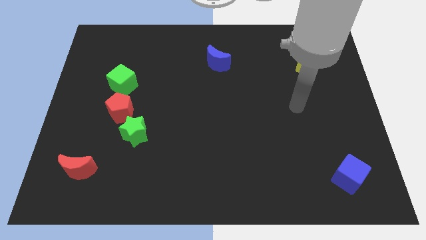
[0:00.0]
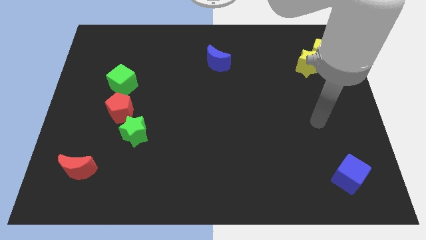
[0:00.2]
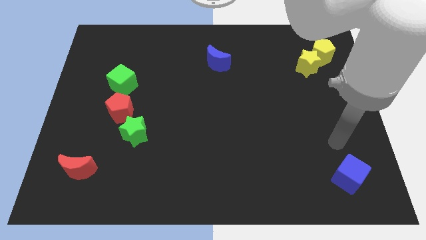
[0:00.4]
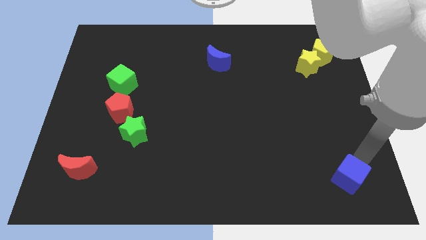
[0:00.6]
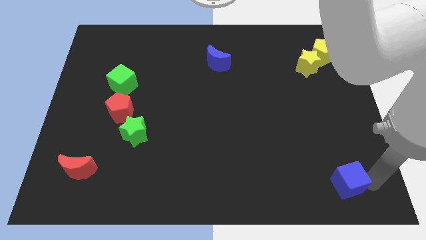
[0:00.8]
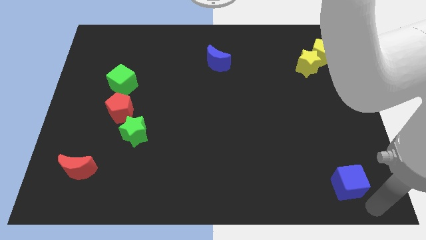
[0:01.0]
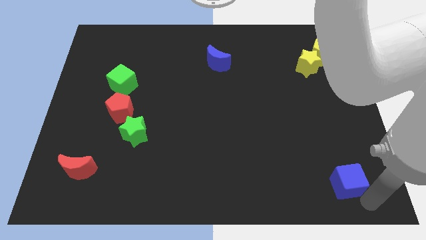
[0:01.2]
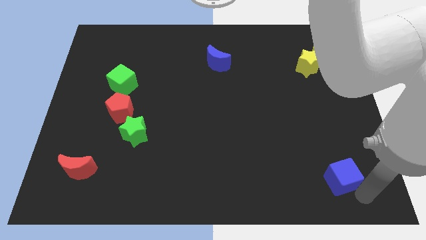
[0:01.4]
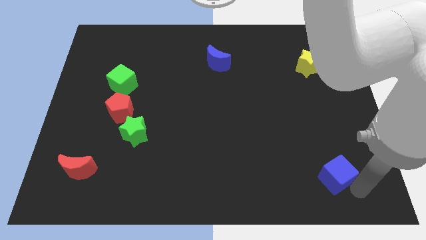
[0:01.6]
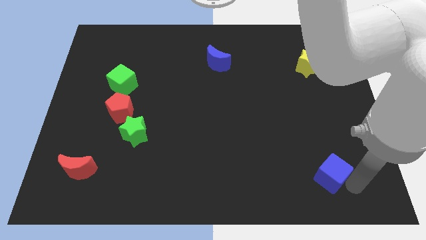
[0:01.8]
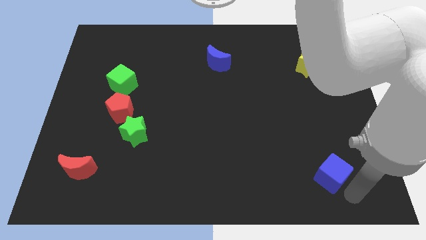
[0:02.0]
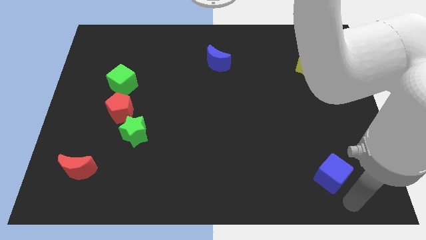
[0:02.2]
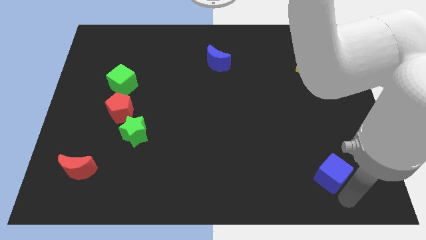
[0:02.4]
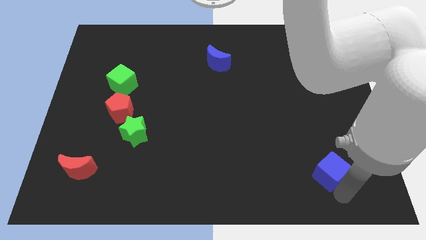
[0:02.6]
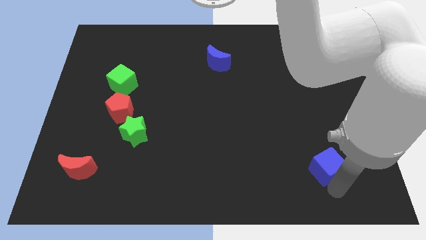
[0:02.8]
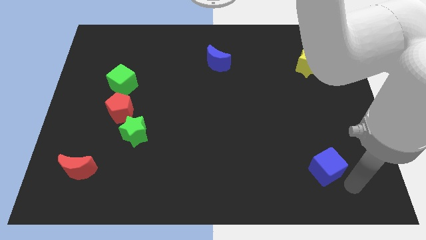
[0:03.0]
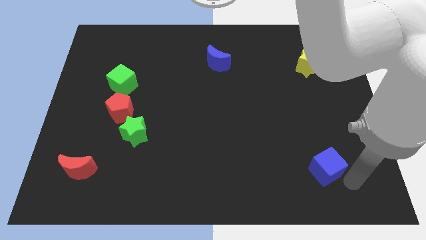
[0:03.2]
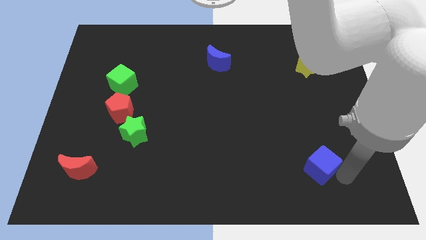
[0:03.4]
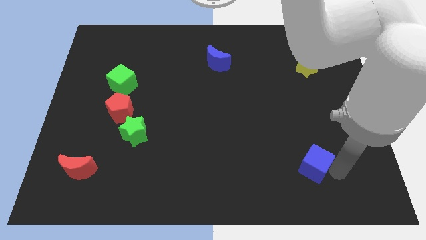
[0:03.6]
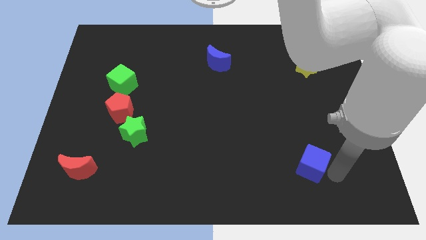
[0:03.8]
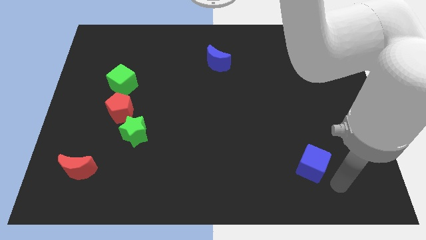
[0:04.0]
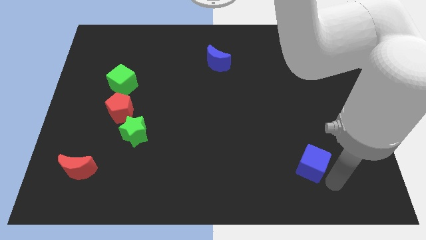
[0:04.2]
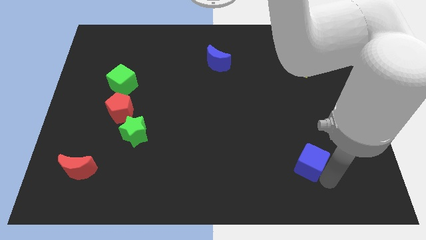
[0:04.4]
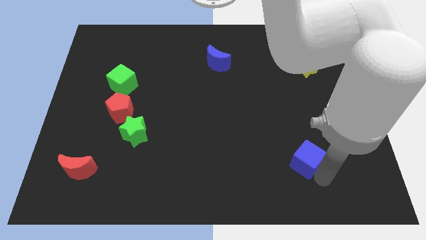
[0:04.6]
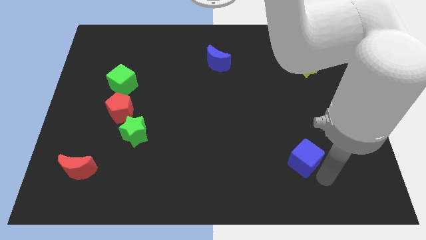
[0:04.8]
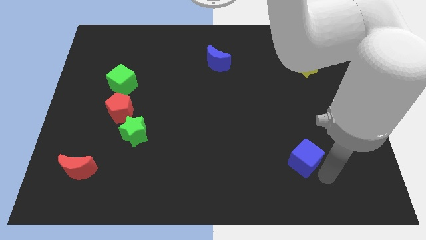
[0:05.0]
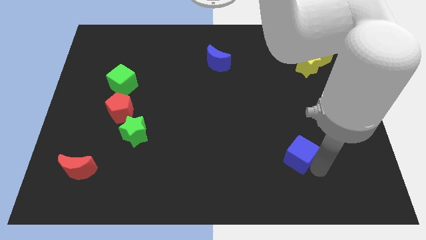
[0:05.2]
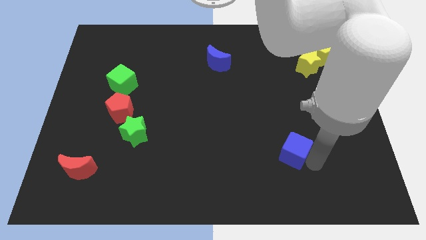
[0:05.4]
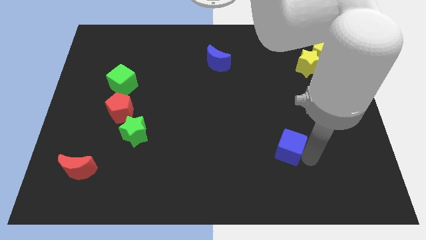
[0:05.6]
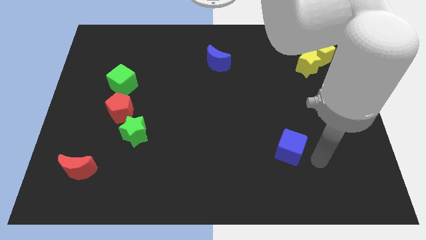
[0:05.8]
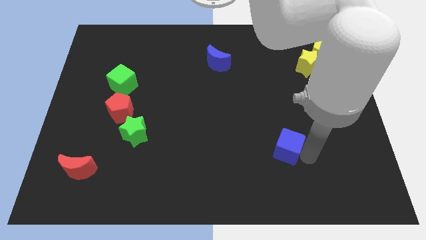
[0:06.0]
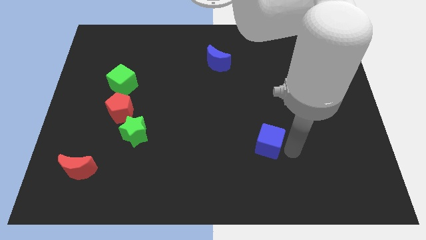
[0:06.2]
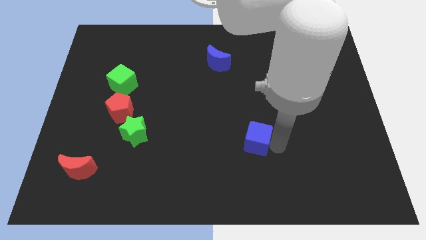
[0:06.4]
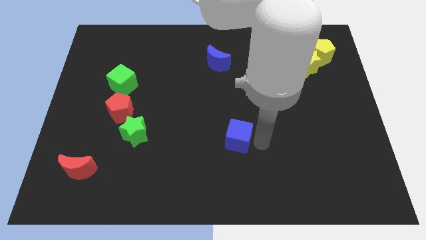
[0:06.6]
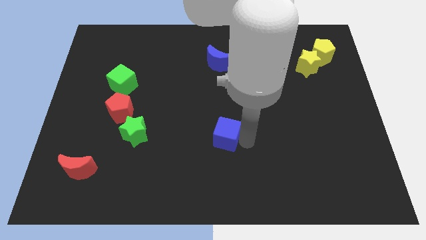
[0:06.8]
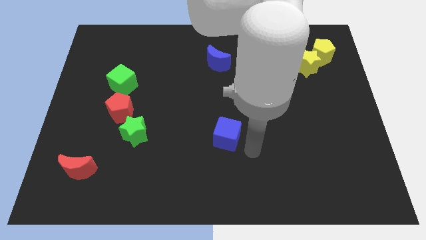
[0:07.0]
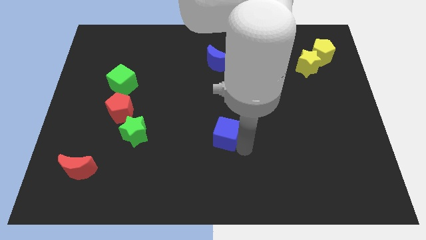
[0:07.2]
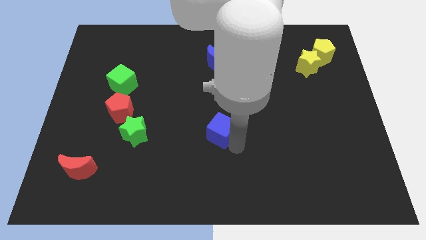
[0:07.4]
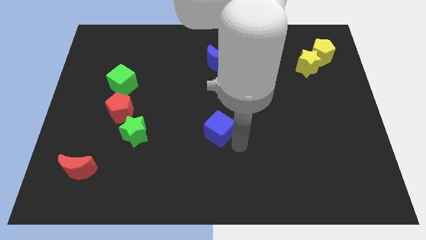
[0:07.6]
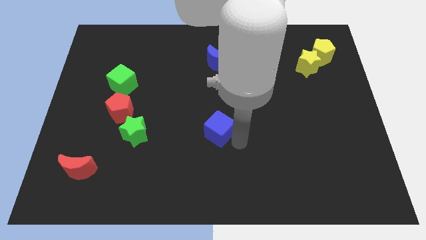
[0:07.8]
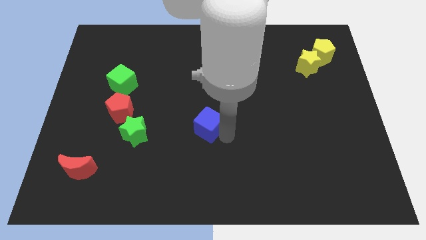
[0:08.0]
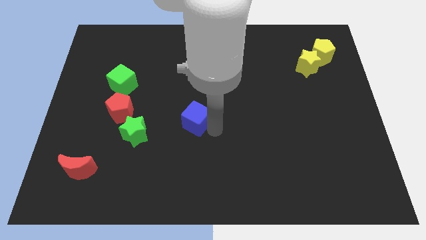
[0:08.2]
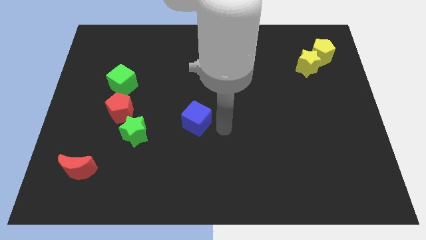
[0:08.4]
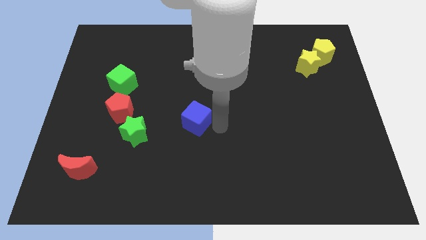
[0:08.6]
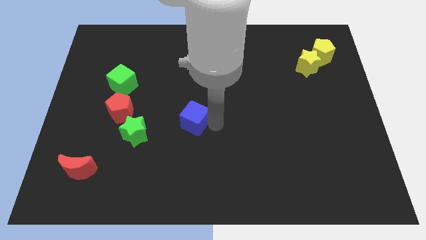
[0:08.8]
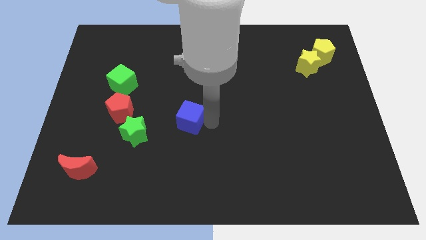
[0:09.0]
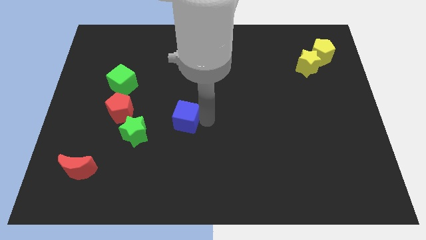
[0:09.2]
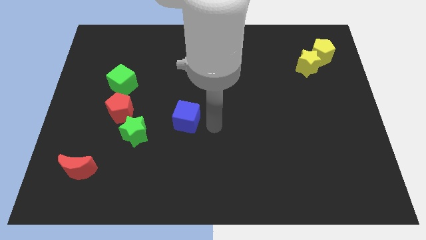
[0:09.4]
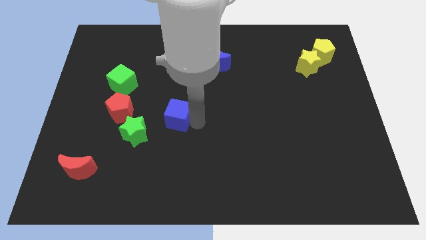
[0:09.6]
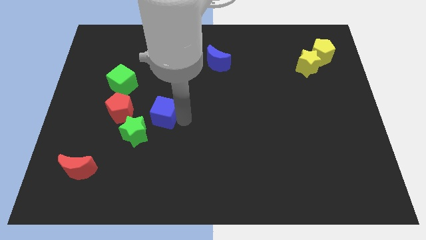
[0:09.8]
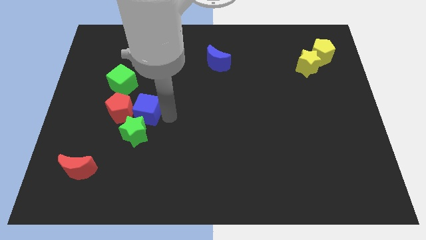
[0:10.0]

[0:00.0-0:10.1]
slide the blue cube next to the red pentagon
